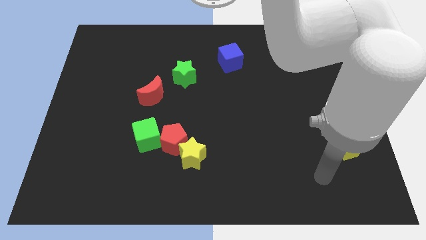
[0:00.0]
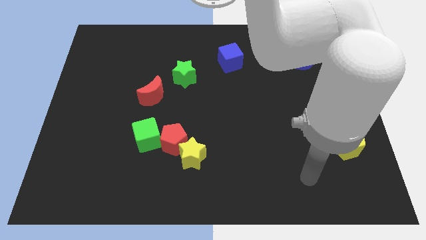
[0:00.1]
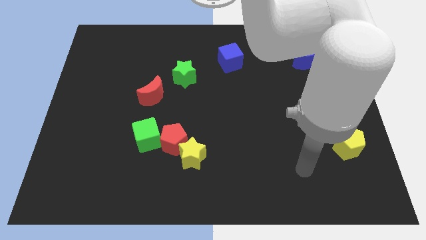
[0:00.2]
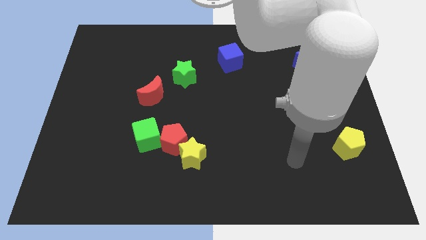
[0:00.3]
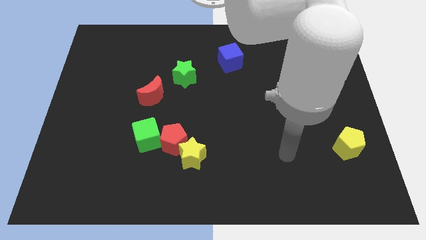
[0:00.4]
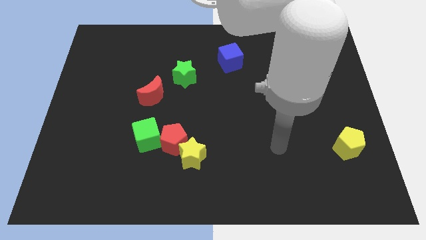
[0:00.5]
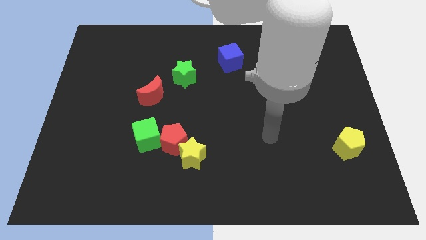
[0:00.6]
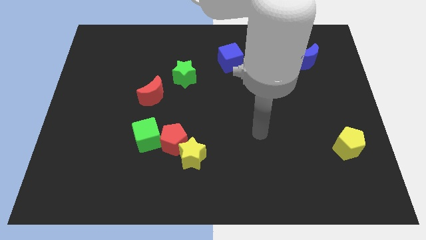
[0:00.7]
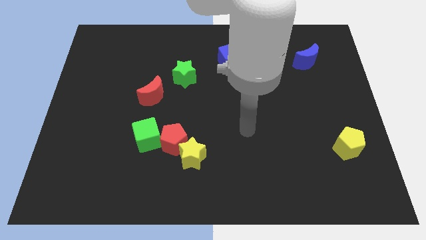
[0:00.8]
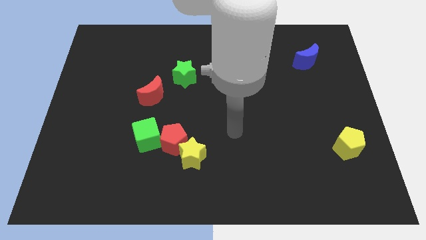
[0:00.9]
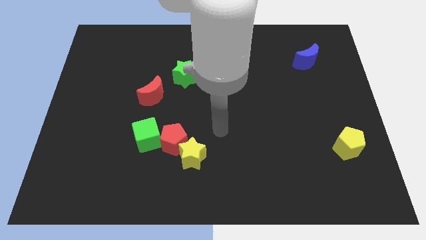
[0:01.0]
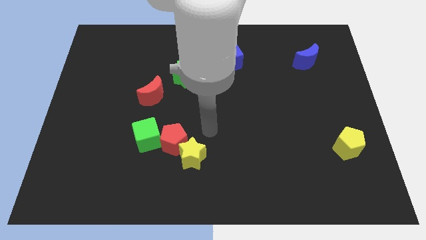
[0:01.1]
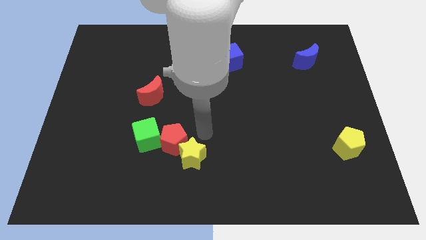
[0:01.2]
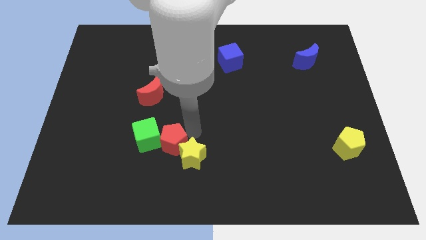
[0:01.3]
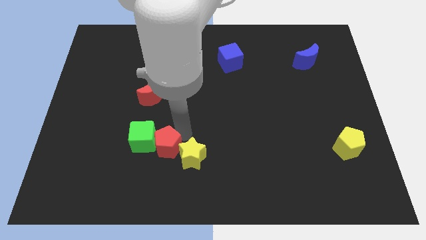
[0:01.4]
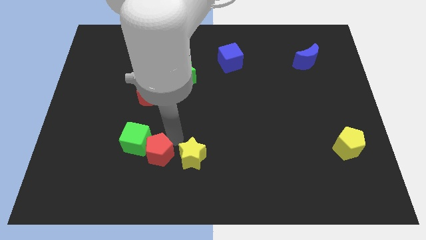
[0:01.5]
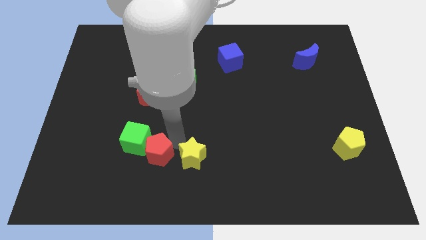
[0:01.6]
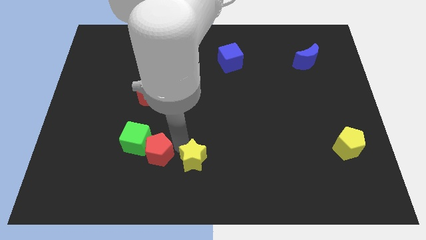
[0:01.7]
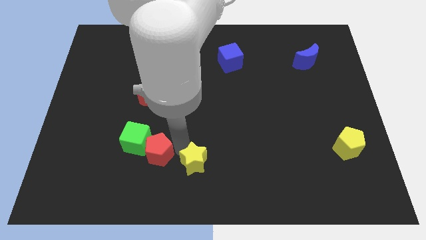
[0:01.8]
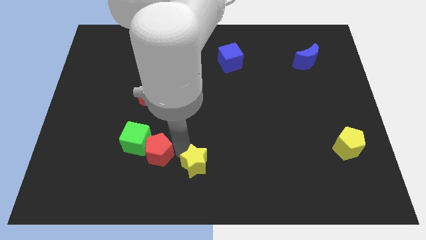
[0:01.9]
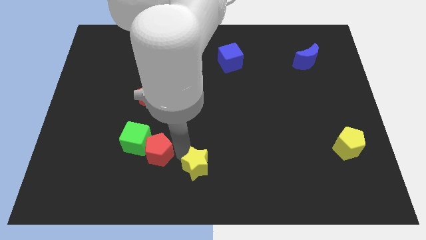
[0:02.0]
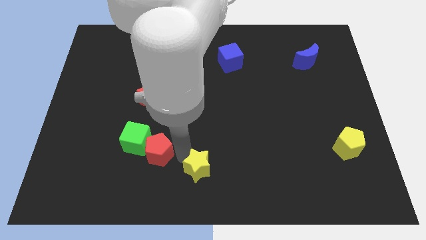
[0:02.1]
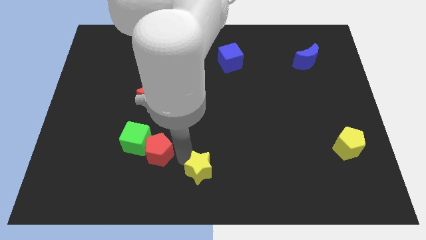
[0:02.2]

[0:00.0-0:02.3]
pull the yellow star apart from the red pentagon

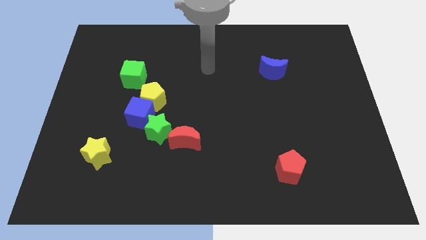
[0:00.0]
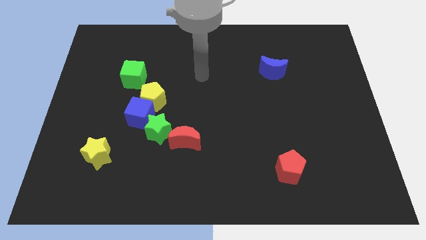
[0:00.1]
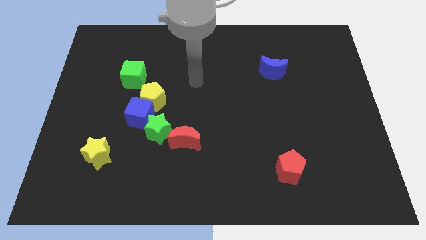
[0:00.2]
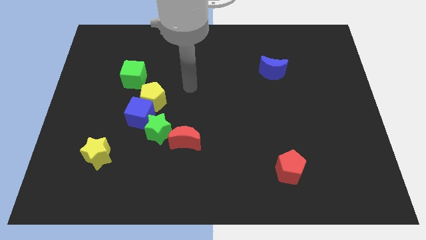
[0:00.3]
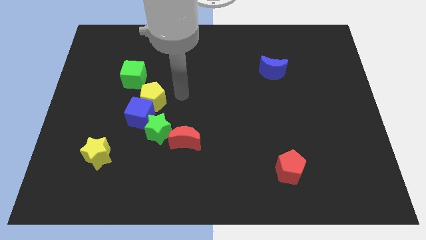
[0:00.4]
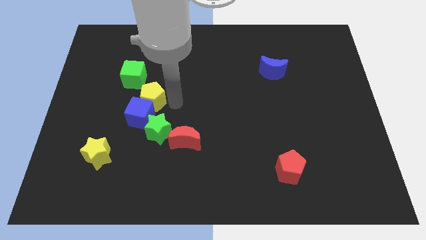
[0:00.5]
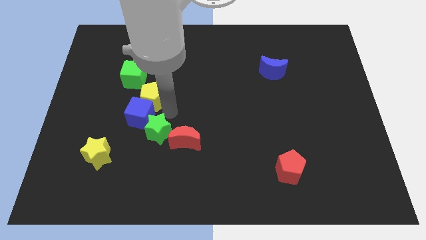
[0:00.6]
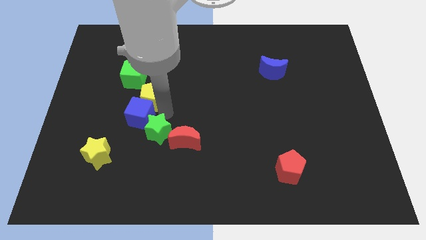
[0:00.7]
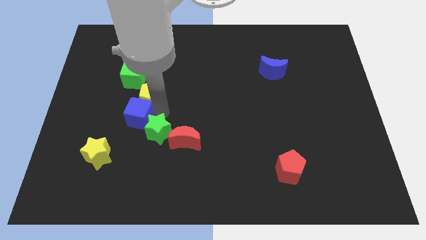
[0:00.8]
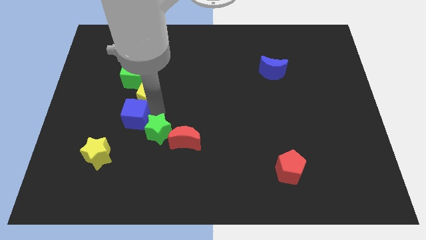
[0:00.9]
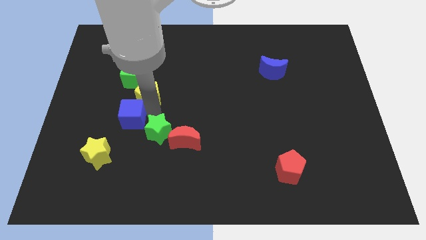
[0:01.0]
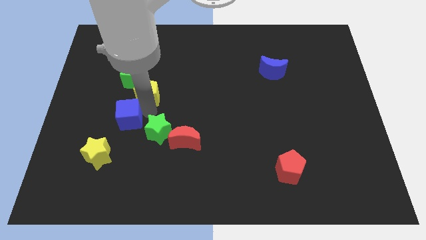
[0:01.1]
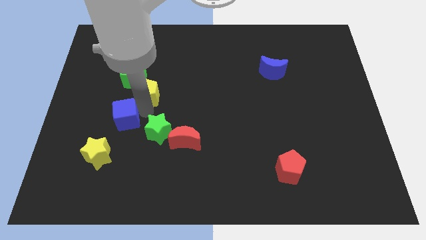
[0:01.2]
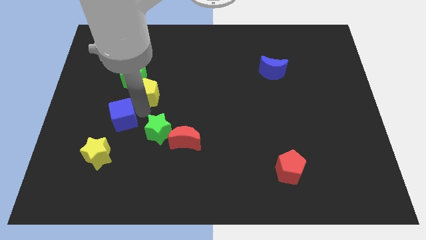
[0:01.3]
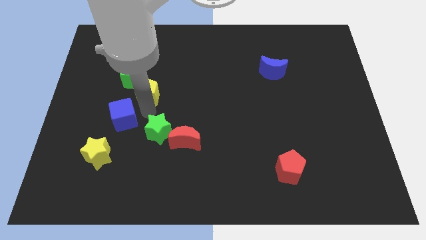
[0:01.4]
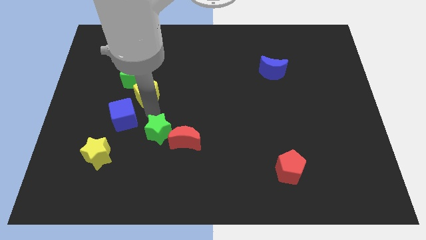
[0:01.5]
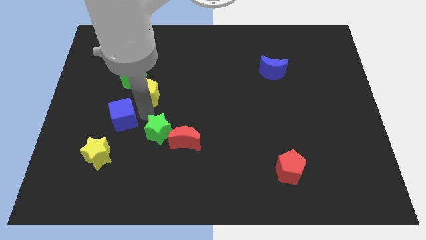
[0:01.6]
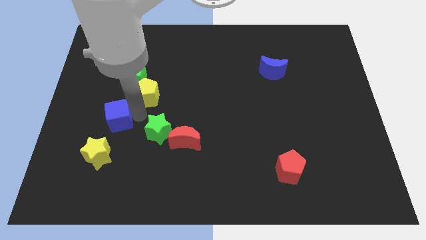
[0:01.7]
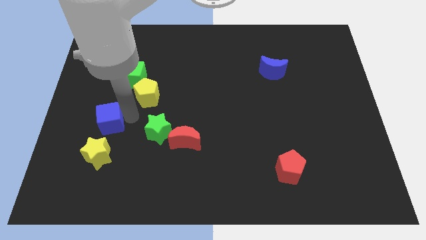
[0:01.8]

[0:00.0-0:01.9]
move the blue cube away from the yellow pentagon and green star

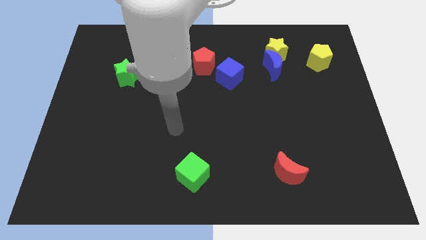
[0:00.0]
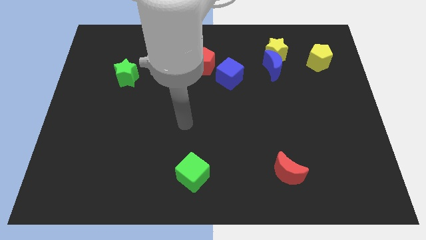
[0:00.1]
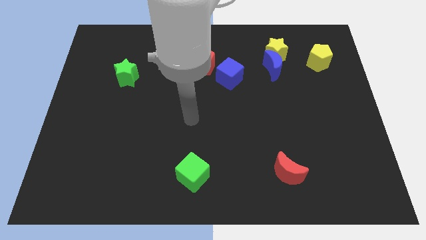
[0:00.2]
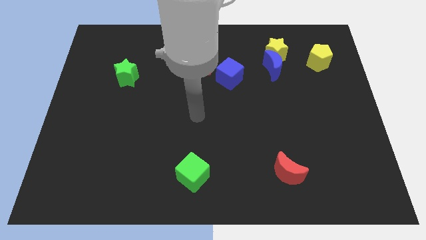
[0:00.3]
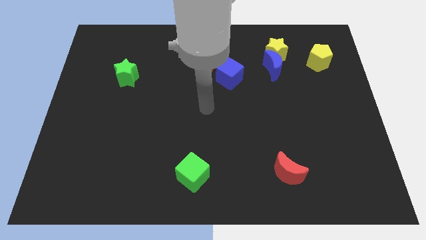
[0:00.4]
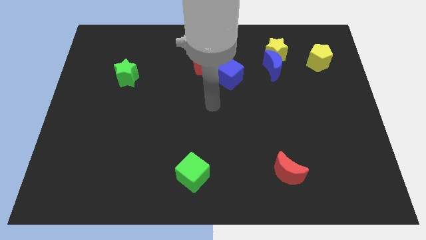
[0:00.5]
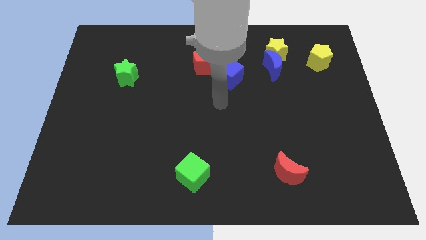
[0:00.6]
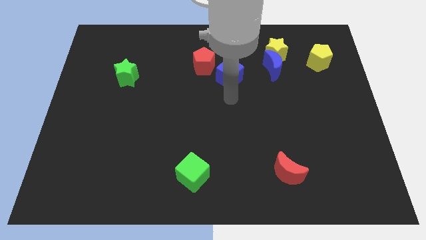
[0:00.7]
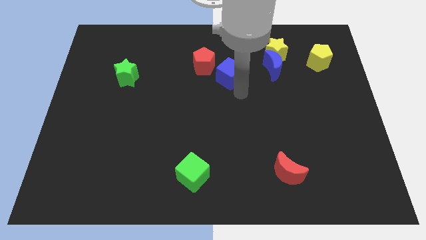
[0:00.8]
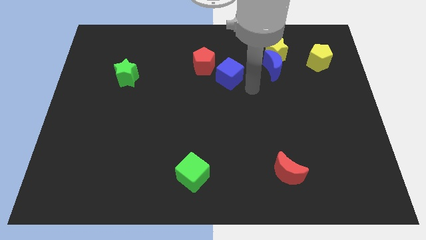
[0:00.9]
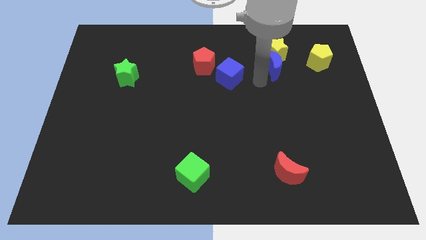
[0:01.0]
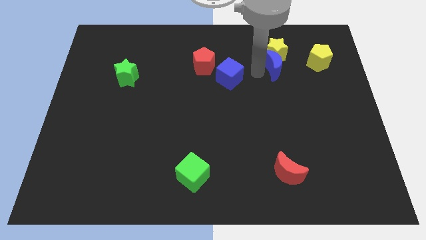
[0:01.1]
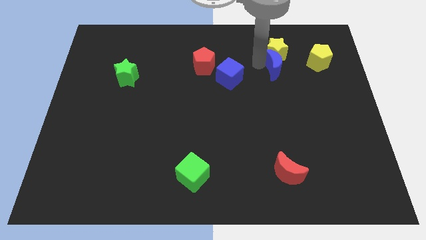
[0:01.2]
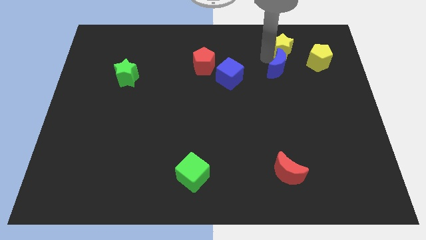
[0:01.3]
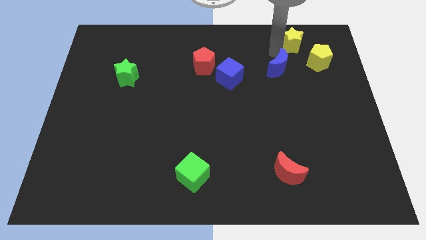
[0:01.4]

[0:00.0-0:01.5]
move the blue moon away from the yellow star

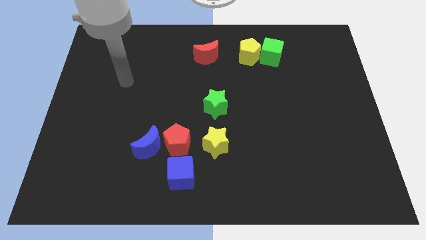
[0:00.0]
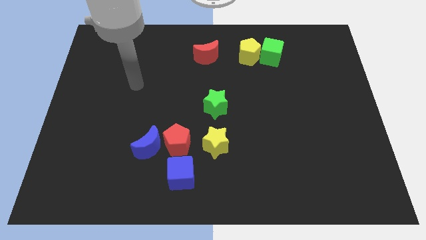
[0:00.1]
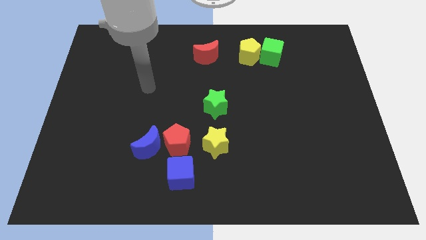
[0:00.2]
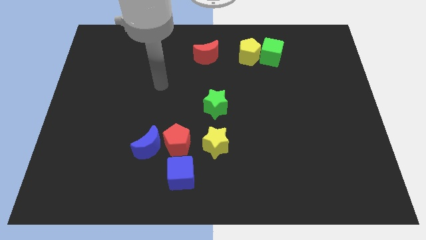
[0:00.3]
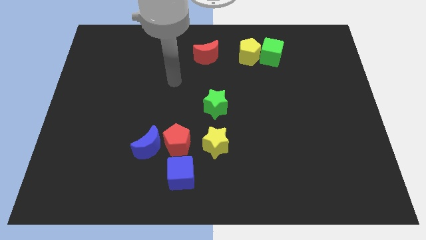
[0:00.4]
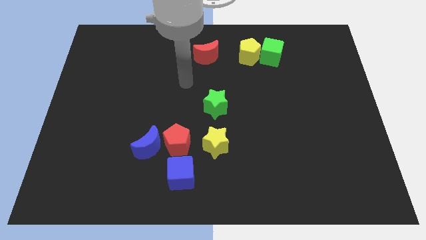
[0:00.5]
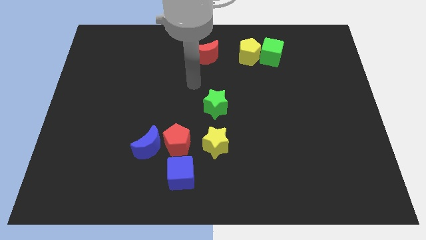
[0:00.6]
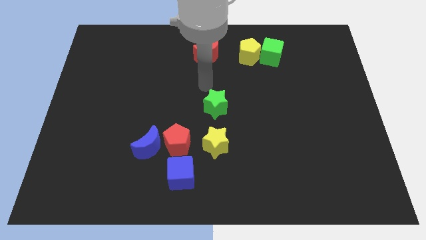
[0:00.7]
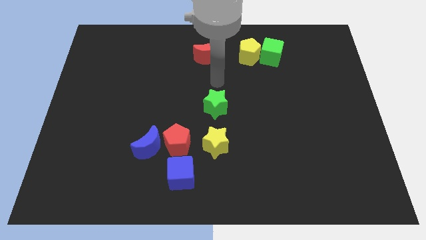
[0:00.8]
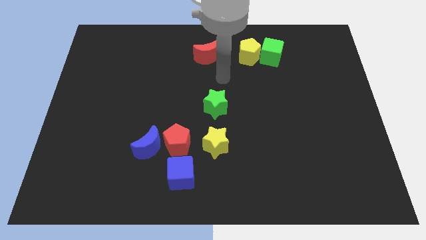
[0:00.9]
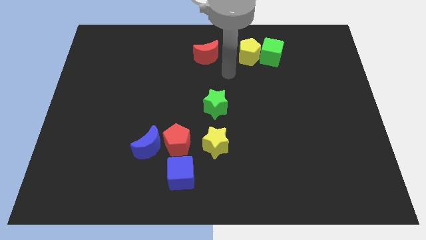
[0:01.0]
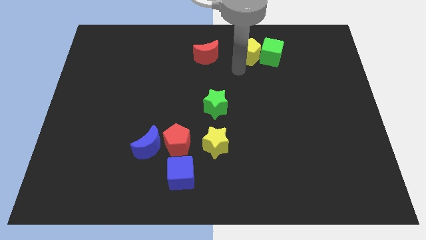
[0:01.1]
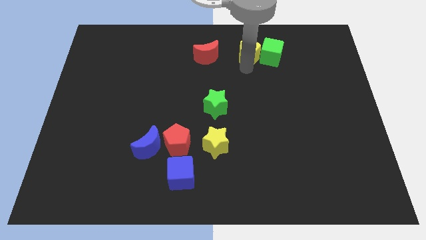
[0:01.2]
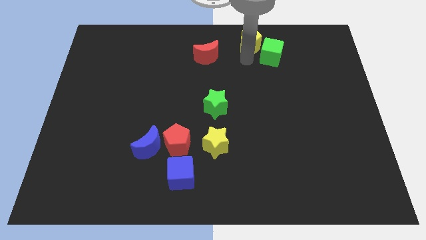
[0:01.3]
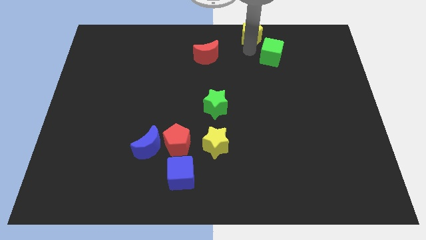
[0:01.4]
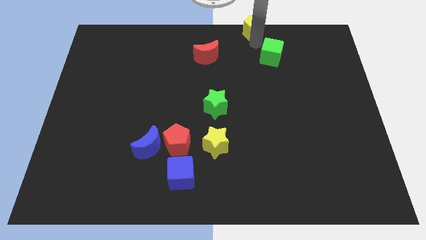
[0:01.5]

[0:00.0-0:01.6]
move the green cube away from the yellow pentagon

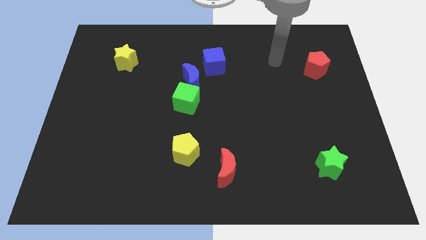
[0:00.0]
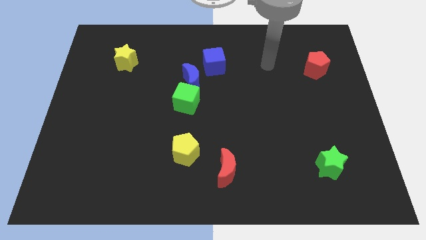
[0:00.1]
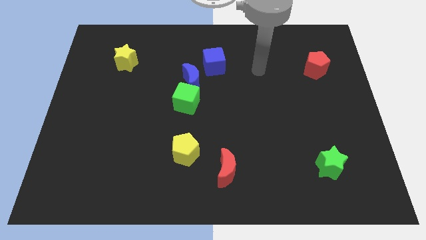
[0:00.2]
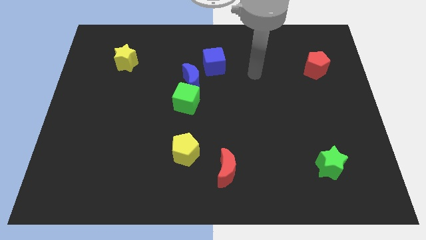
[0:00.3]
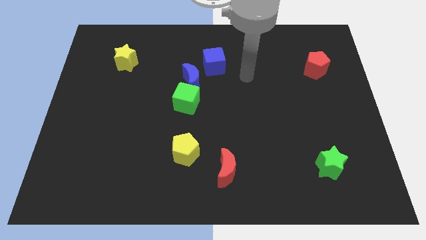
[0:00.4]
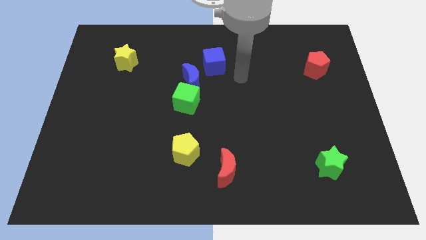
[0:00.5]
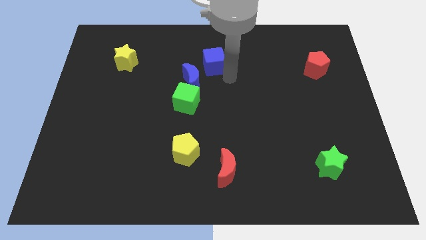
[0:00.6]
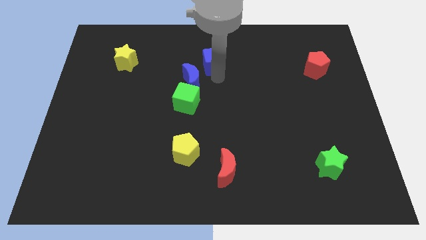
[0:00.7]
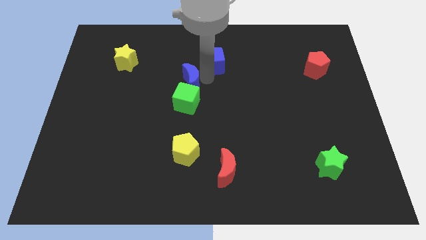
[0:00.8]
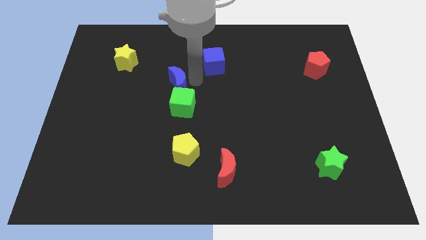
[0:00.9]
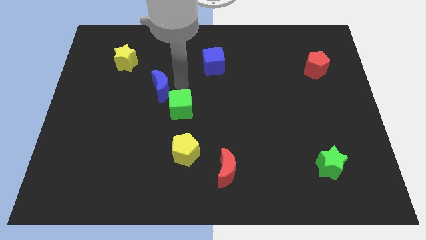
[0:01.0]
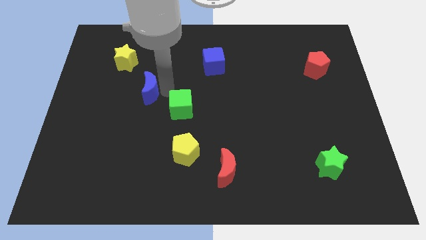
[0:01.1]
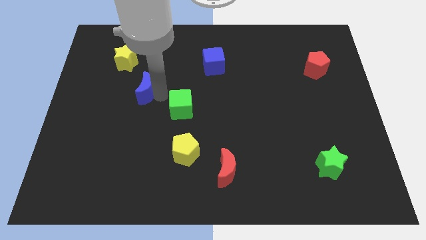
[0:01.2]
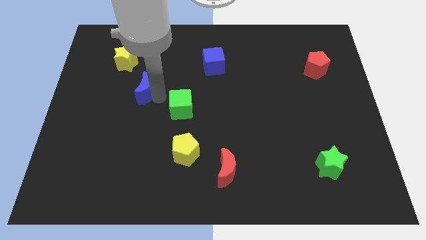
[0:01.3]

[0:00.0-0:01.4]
separate the green cube from the blue moon

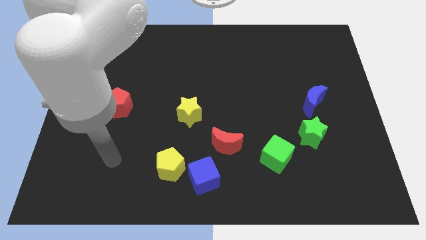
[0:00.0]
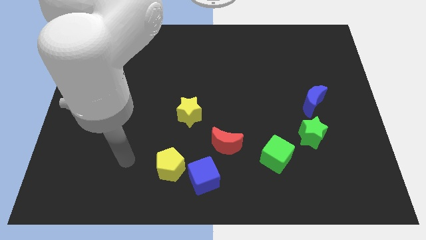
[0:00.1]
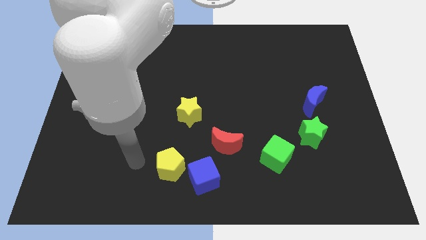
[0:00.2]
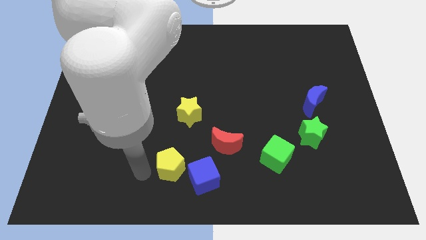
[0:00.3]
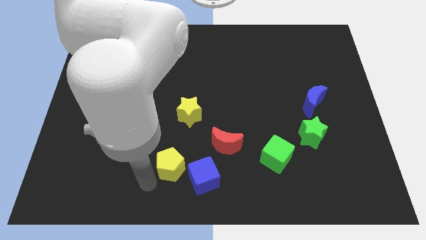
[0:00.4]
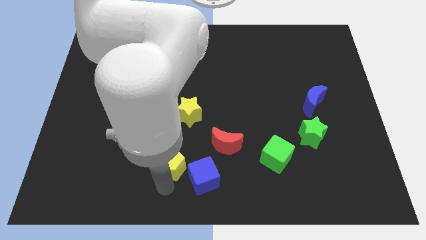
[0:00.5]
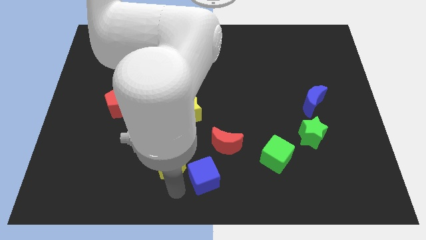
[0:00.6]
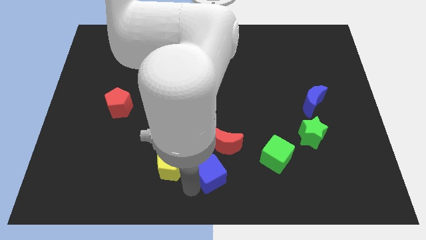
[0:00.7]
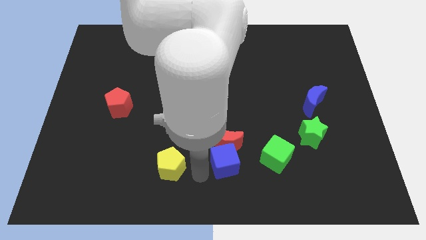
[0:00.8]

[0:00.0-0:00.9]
separate the yellow pentagon from the blue cube
